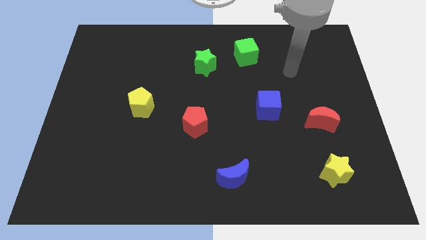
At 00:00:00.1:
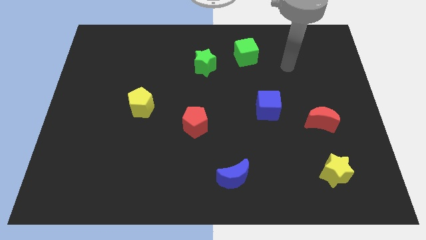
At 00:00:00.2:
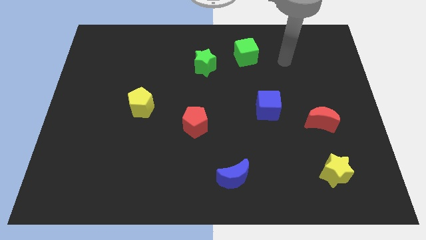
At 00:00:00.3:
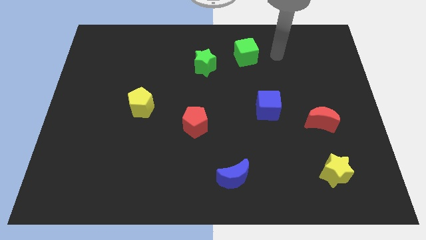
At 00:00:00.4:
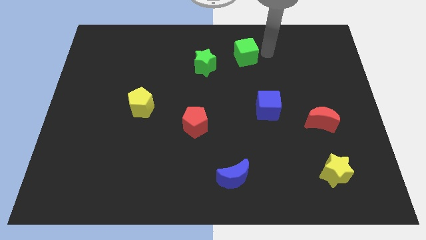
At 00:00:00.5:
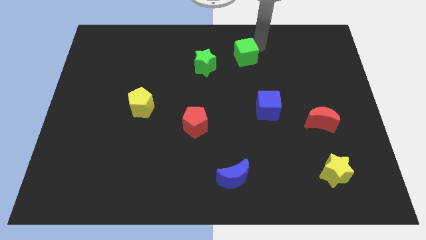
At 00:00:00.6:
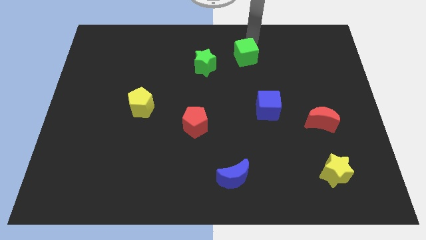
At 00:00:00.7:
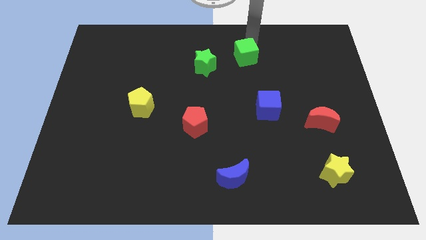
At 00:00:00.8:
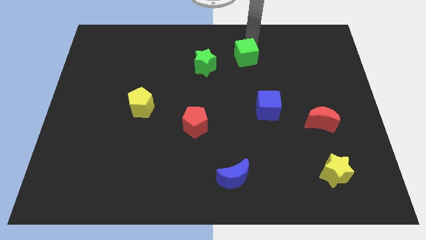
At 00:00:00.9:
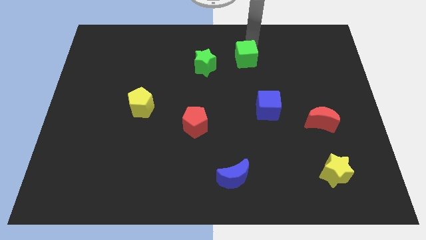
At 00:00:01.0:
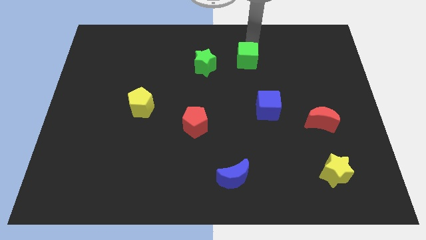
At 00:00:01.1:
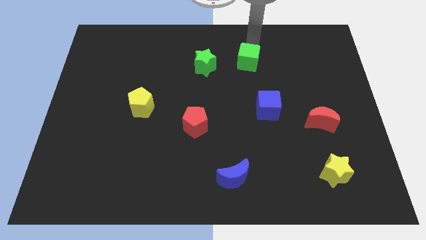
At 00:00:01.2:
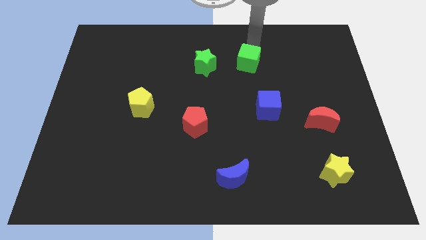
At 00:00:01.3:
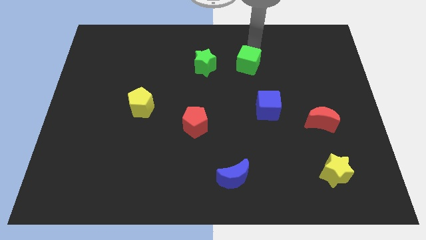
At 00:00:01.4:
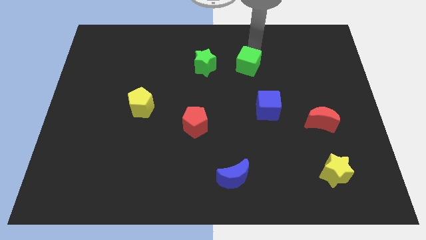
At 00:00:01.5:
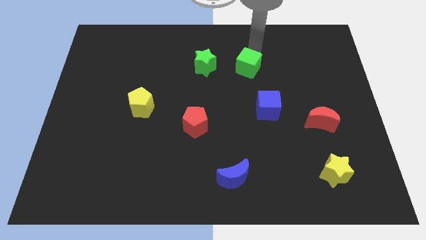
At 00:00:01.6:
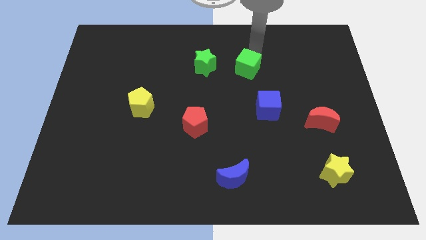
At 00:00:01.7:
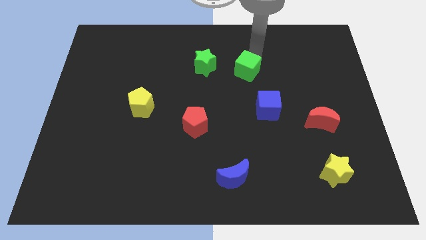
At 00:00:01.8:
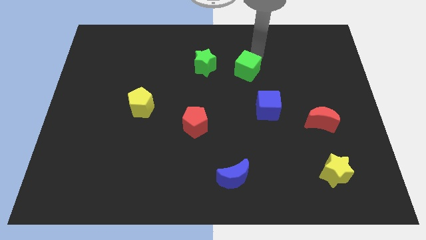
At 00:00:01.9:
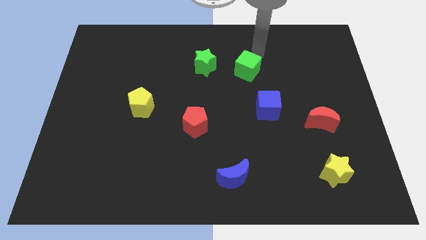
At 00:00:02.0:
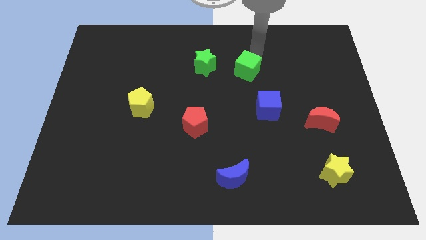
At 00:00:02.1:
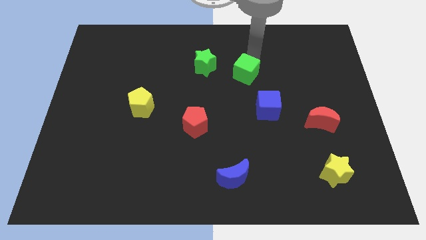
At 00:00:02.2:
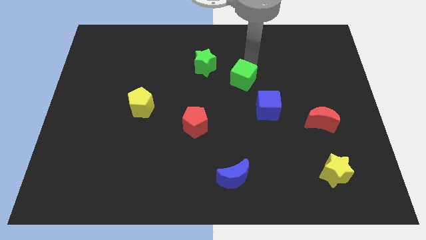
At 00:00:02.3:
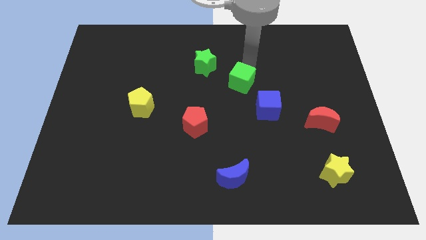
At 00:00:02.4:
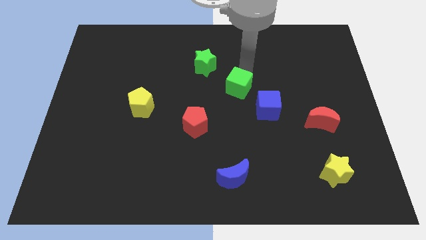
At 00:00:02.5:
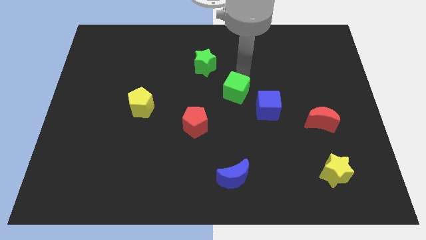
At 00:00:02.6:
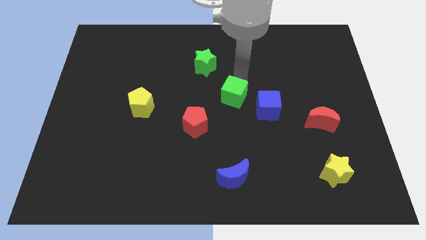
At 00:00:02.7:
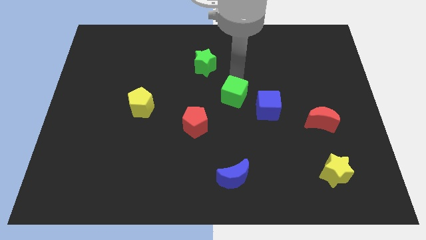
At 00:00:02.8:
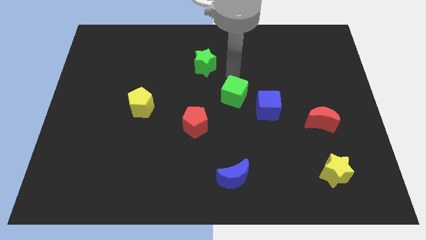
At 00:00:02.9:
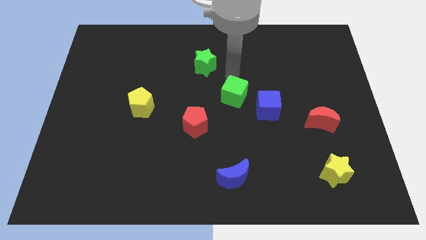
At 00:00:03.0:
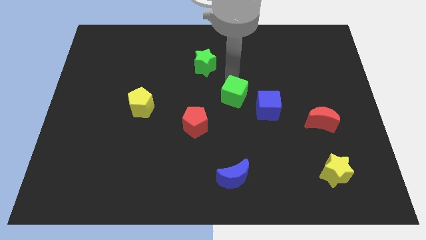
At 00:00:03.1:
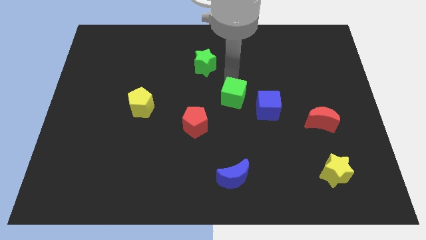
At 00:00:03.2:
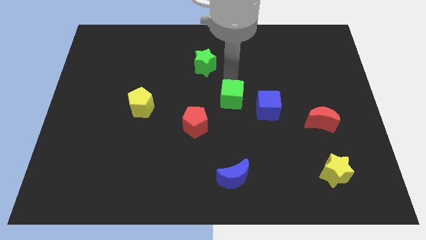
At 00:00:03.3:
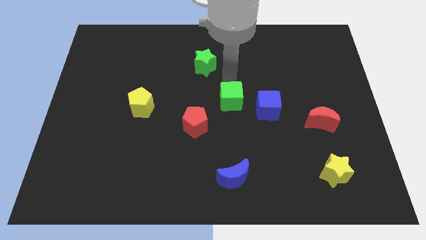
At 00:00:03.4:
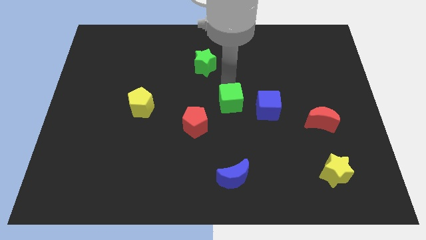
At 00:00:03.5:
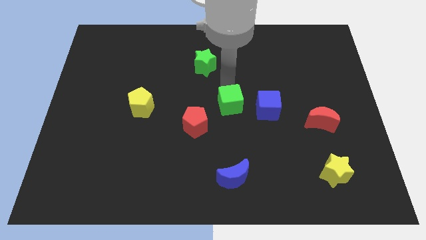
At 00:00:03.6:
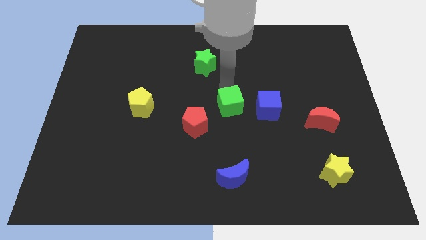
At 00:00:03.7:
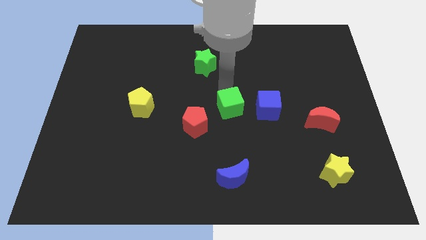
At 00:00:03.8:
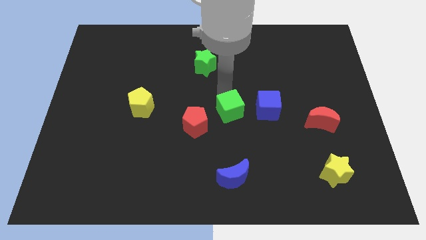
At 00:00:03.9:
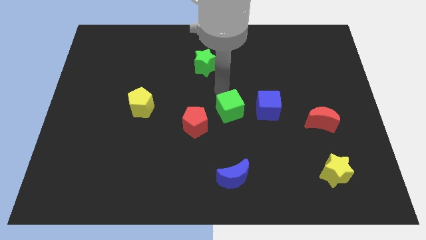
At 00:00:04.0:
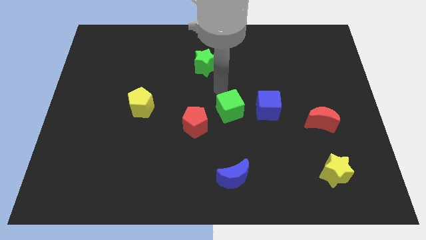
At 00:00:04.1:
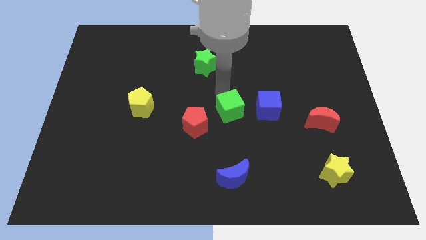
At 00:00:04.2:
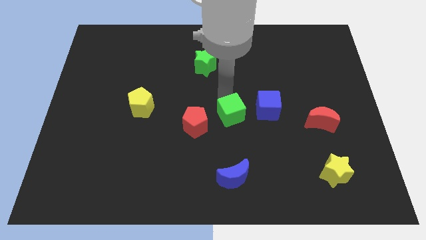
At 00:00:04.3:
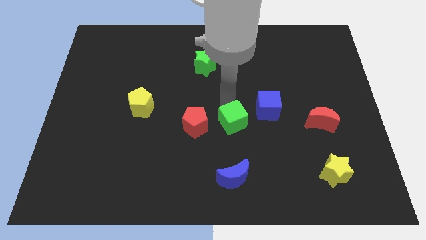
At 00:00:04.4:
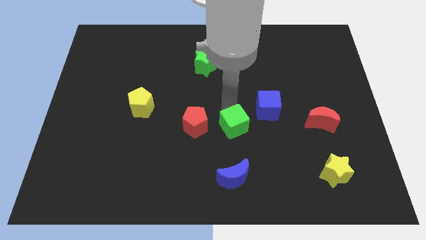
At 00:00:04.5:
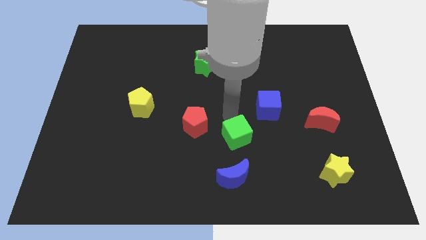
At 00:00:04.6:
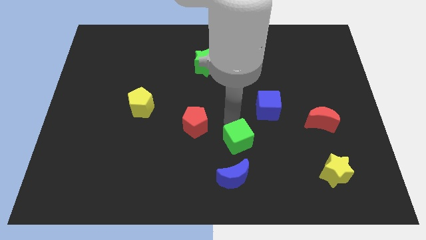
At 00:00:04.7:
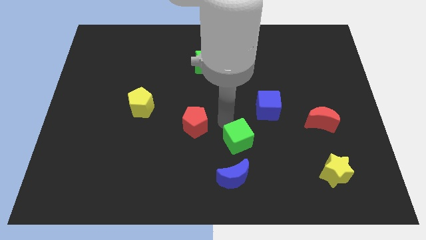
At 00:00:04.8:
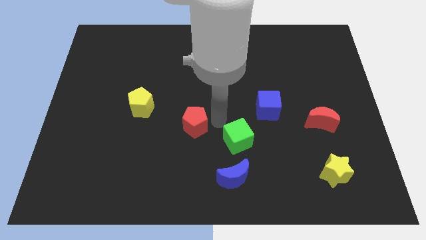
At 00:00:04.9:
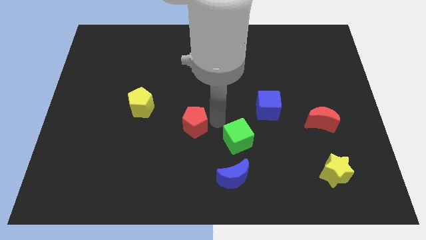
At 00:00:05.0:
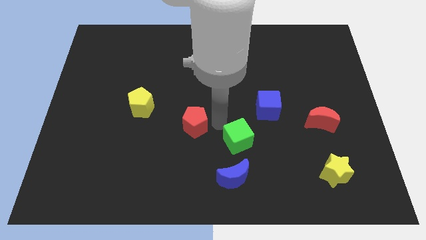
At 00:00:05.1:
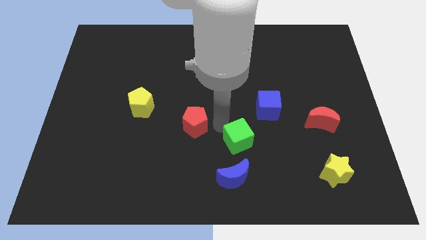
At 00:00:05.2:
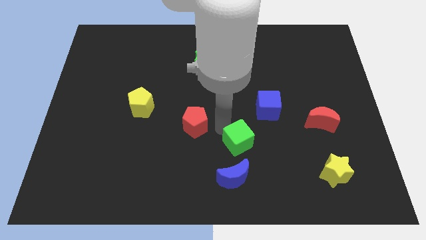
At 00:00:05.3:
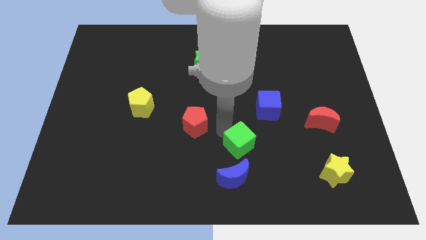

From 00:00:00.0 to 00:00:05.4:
push the green cube to the top right of the blue moon

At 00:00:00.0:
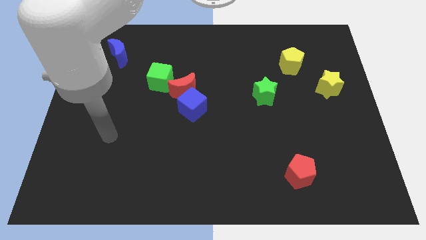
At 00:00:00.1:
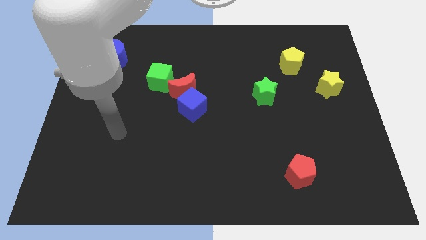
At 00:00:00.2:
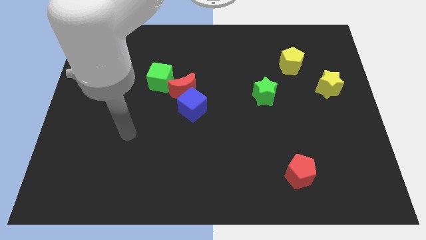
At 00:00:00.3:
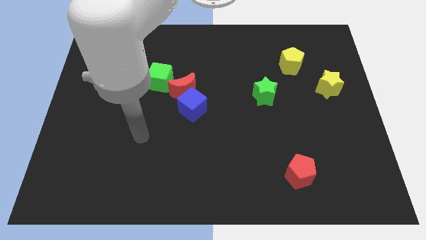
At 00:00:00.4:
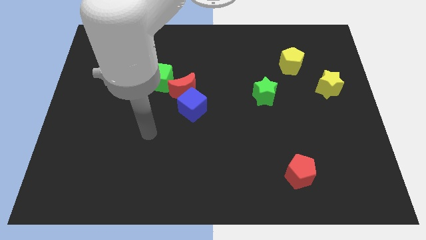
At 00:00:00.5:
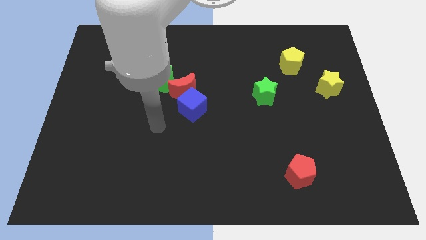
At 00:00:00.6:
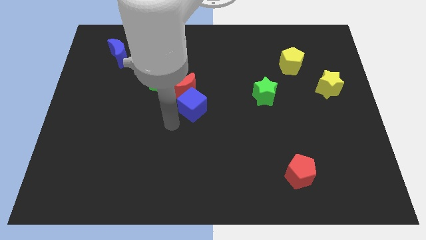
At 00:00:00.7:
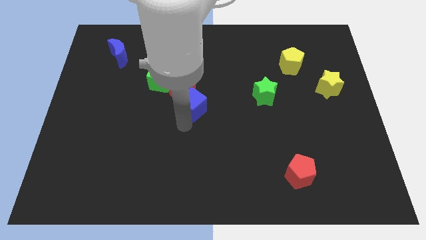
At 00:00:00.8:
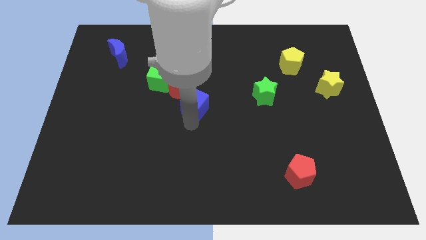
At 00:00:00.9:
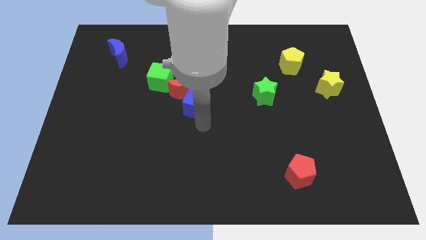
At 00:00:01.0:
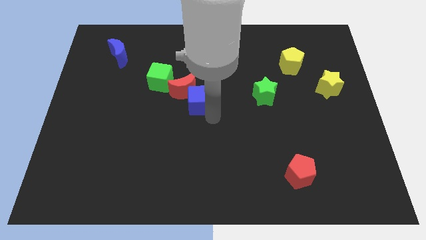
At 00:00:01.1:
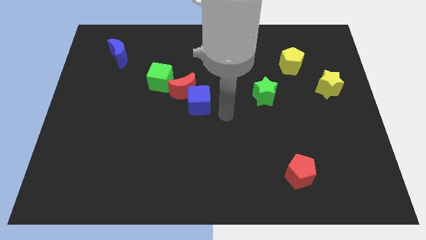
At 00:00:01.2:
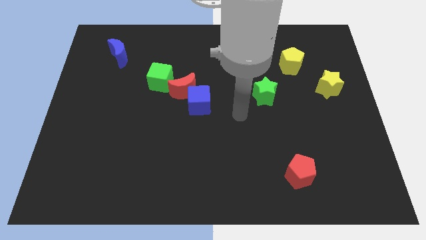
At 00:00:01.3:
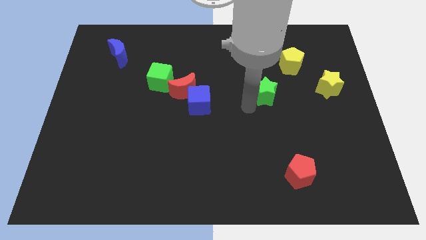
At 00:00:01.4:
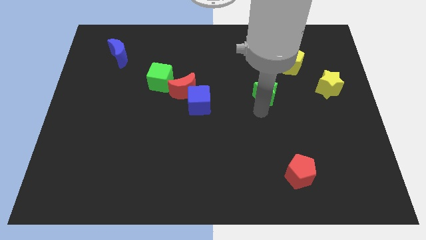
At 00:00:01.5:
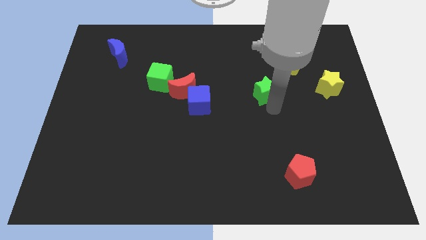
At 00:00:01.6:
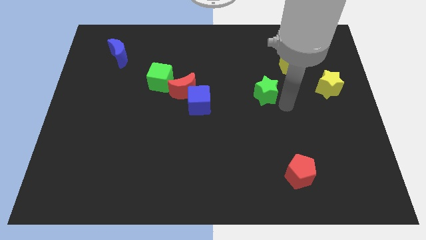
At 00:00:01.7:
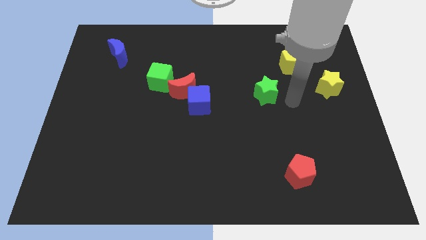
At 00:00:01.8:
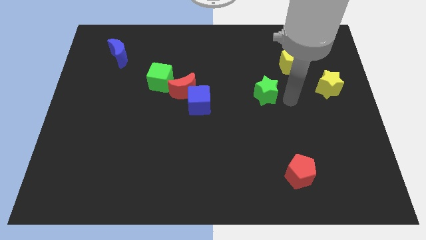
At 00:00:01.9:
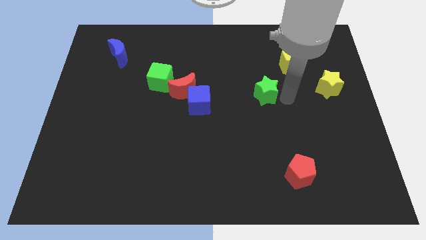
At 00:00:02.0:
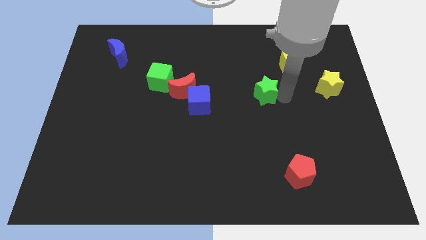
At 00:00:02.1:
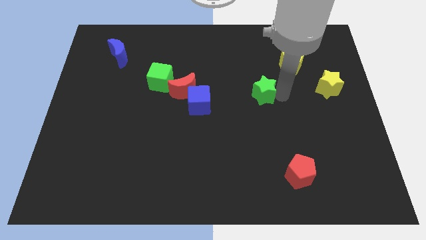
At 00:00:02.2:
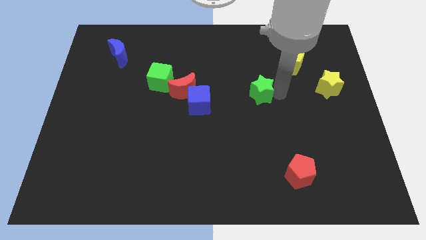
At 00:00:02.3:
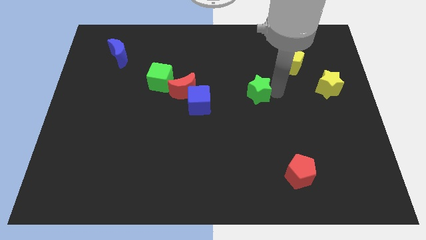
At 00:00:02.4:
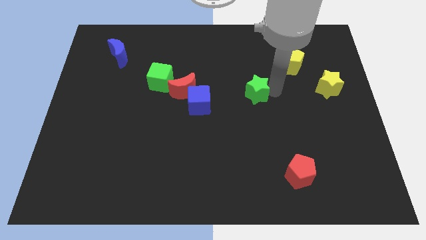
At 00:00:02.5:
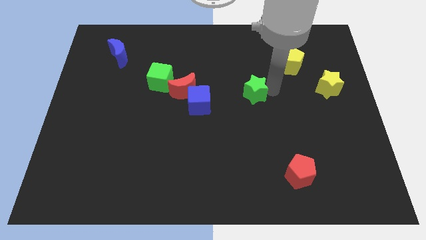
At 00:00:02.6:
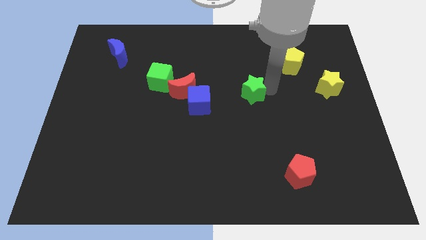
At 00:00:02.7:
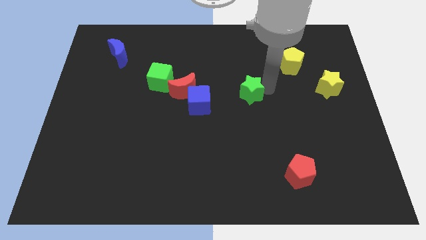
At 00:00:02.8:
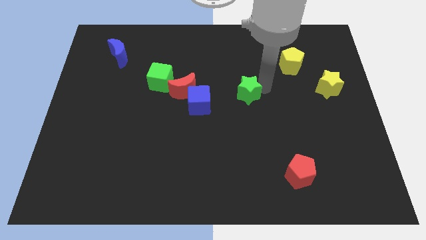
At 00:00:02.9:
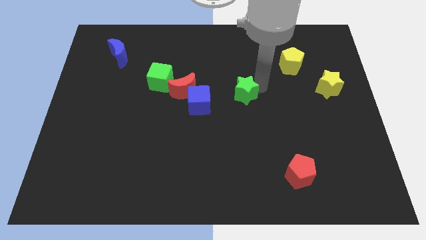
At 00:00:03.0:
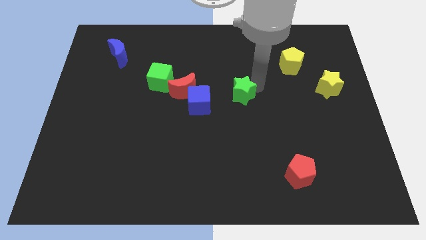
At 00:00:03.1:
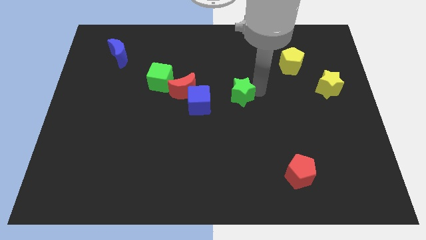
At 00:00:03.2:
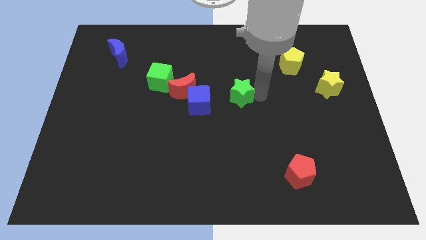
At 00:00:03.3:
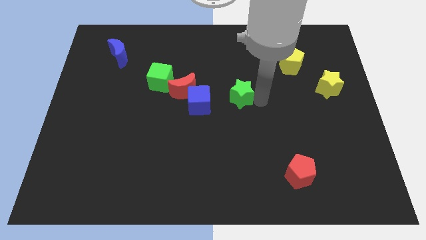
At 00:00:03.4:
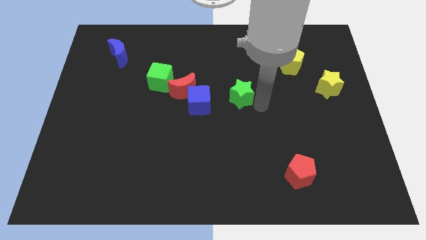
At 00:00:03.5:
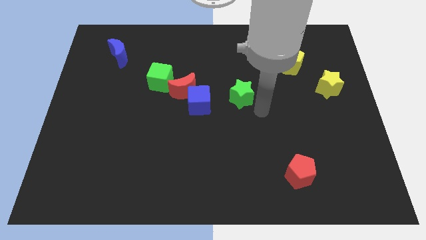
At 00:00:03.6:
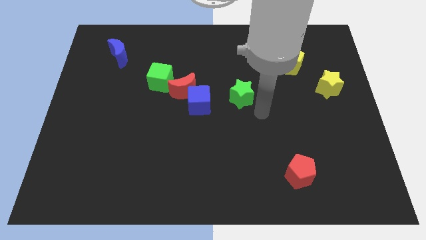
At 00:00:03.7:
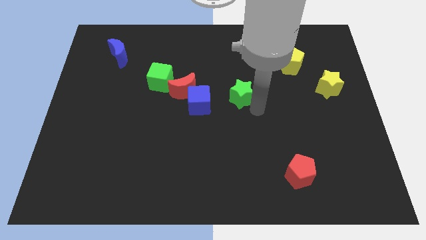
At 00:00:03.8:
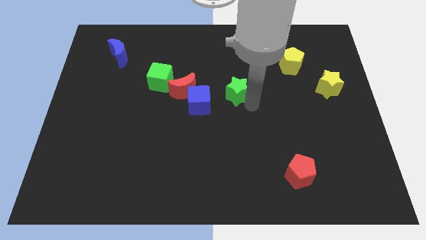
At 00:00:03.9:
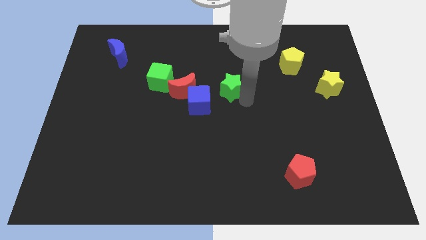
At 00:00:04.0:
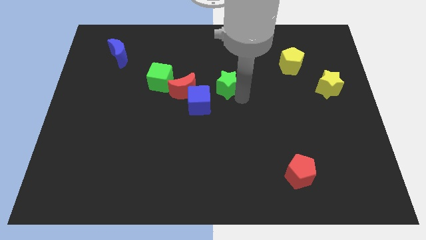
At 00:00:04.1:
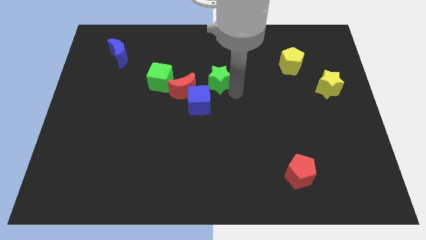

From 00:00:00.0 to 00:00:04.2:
move the green star above the blue cube
